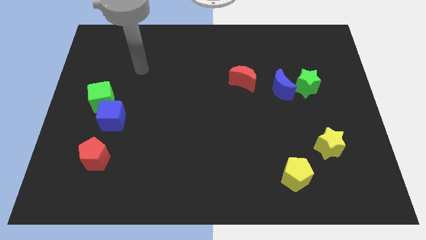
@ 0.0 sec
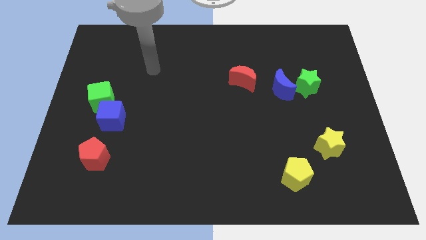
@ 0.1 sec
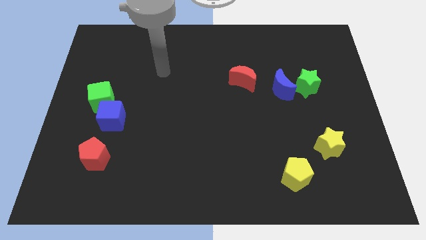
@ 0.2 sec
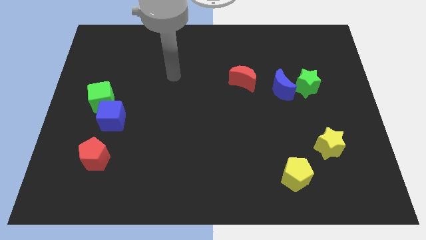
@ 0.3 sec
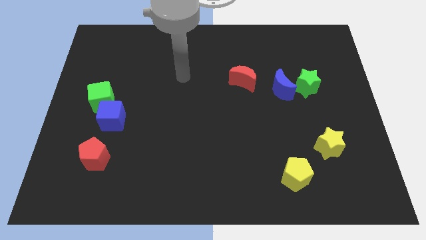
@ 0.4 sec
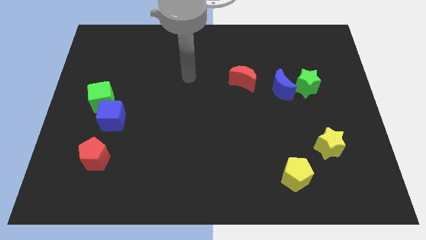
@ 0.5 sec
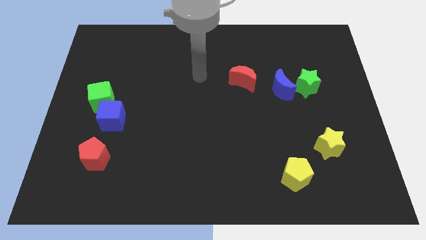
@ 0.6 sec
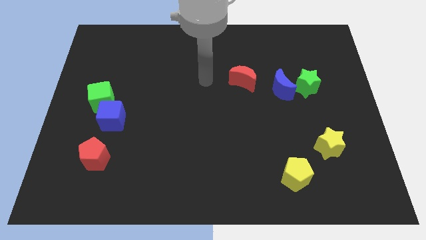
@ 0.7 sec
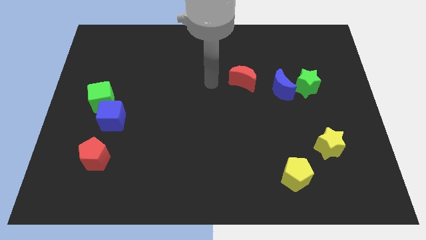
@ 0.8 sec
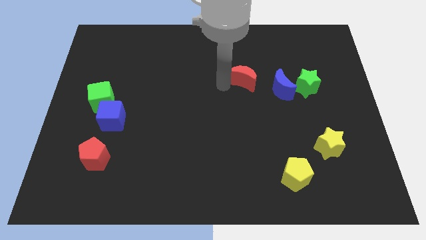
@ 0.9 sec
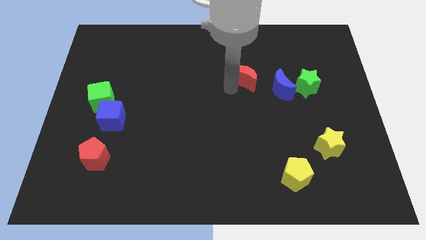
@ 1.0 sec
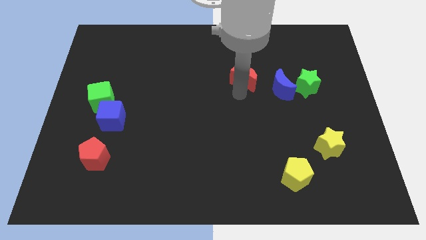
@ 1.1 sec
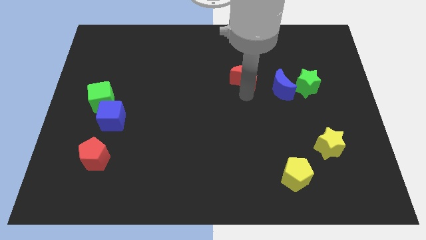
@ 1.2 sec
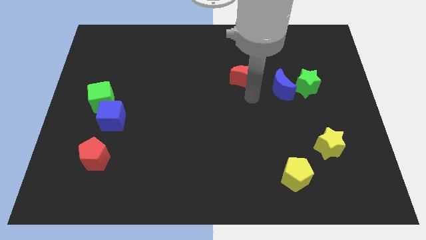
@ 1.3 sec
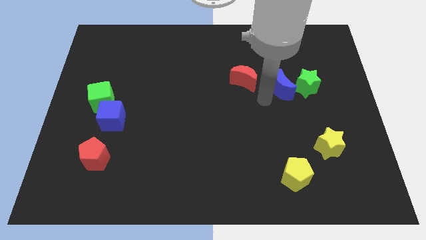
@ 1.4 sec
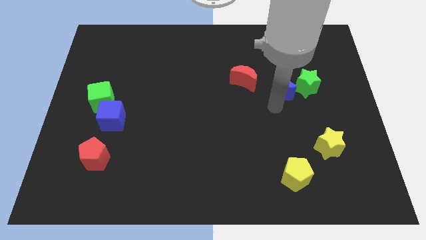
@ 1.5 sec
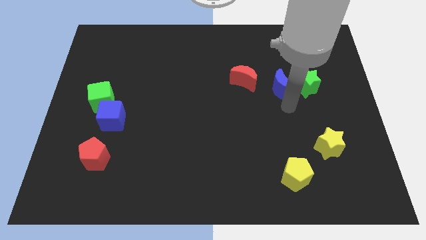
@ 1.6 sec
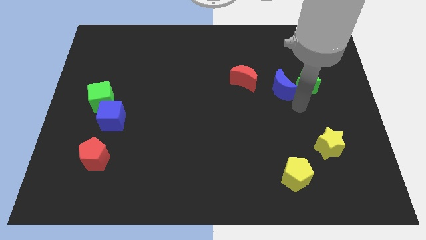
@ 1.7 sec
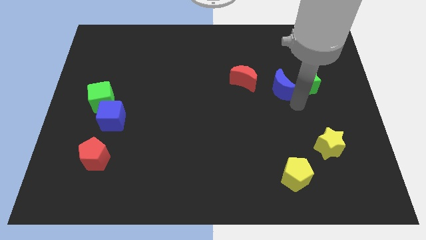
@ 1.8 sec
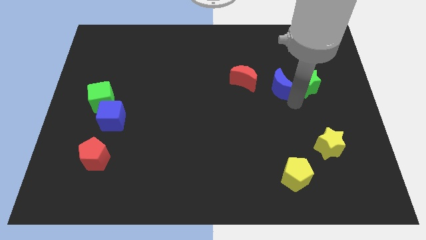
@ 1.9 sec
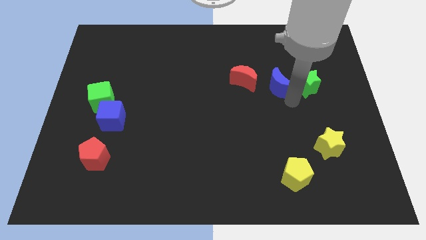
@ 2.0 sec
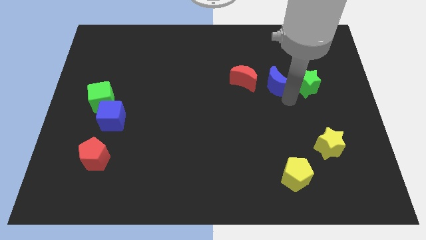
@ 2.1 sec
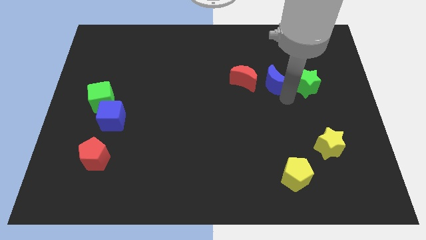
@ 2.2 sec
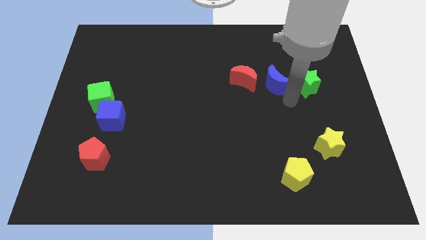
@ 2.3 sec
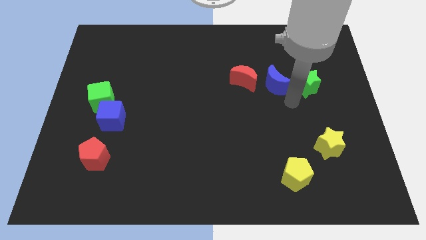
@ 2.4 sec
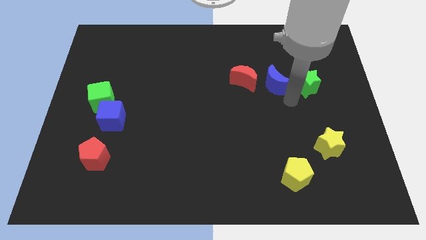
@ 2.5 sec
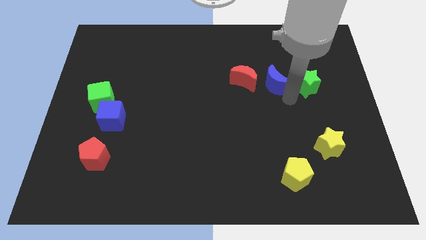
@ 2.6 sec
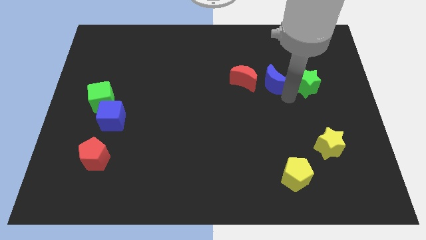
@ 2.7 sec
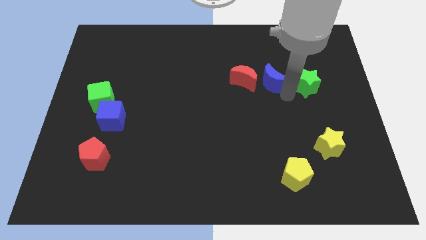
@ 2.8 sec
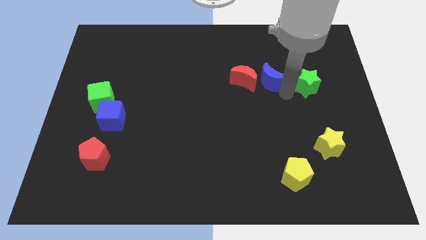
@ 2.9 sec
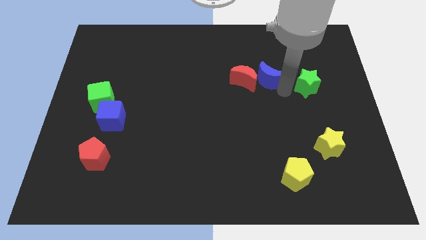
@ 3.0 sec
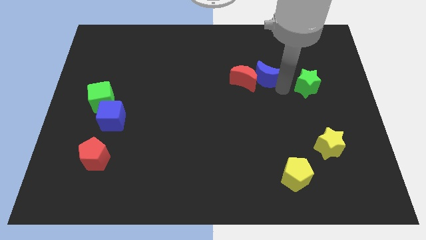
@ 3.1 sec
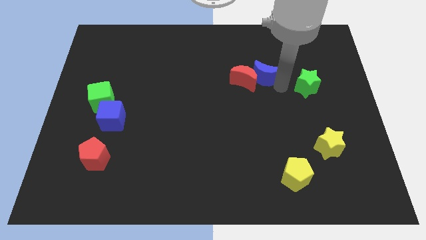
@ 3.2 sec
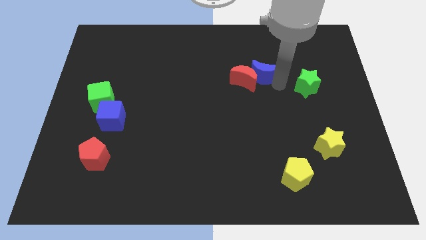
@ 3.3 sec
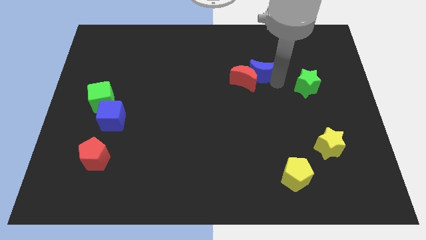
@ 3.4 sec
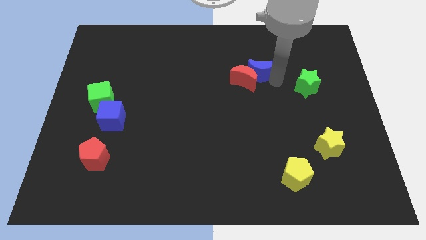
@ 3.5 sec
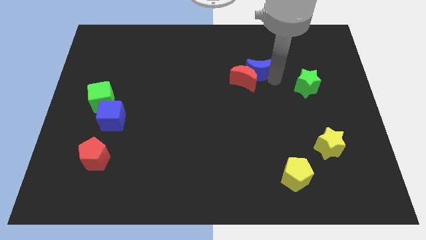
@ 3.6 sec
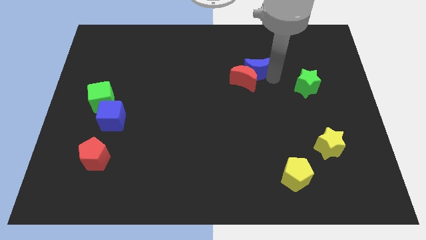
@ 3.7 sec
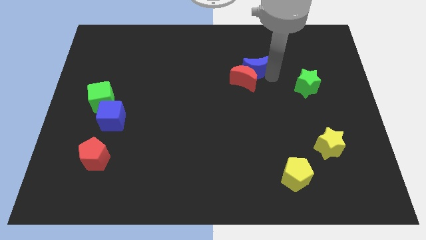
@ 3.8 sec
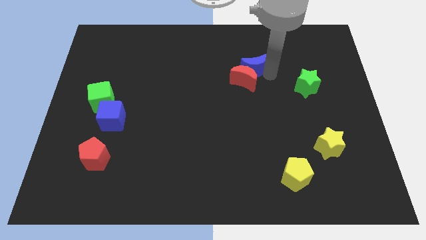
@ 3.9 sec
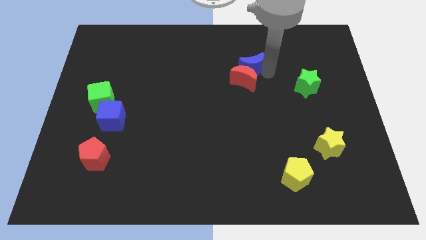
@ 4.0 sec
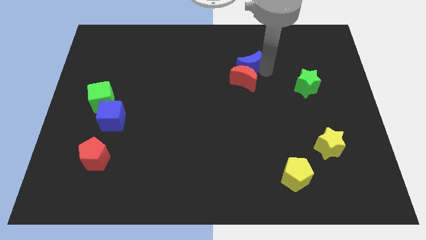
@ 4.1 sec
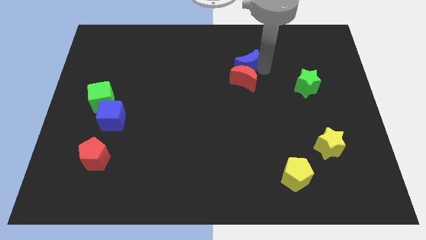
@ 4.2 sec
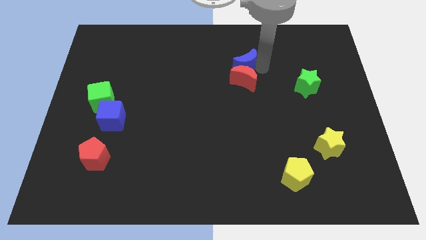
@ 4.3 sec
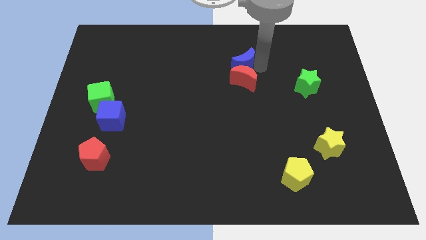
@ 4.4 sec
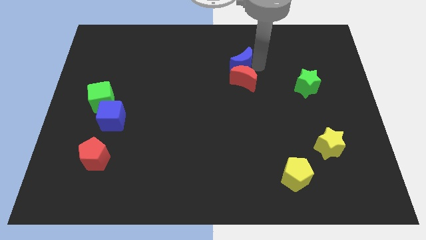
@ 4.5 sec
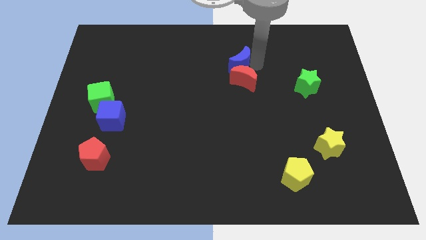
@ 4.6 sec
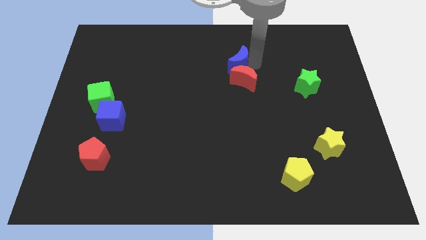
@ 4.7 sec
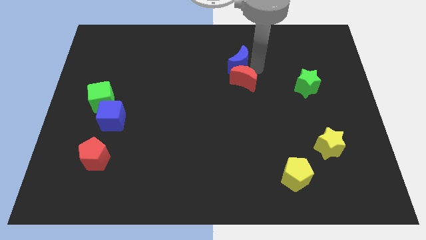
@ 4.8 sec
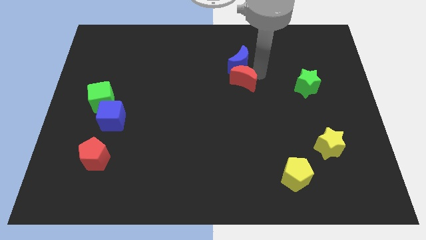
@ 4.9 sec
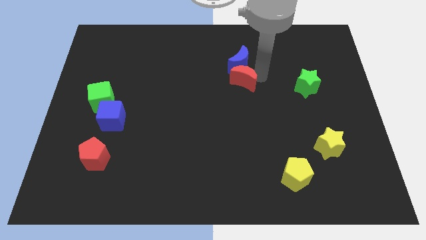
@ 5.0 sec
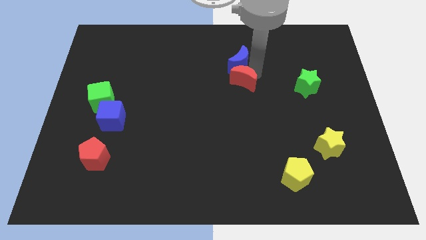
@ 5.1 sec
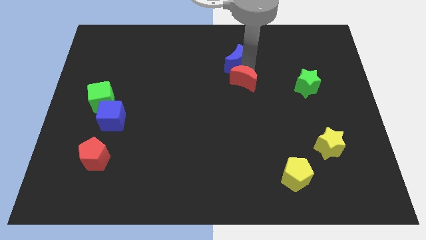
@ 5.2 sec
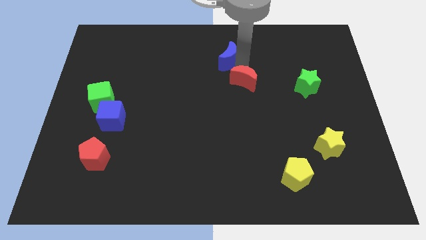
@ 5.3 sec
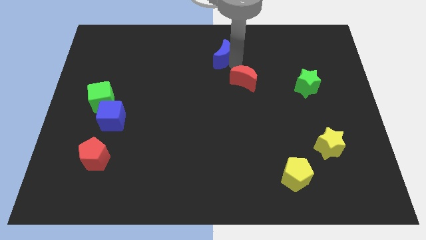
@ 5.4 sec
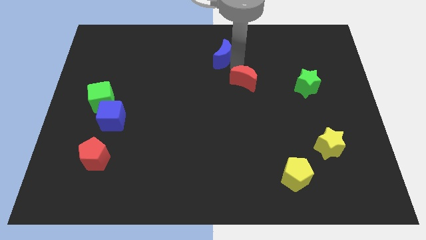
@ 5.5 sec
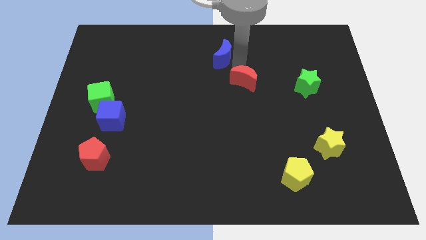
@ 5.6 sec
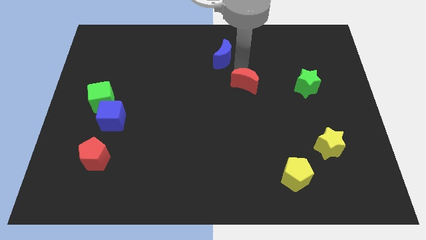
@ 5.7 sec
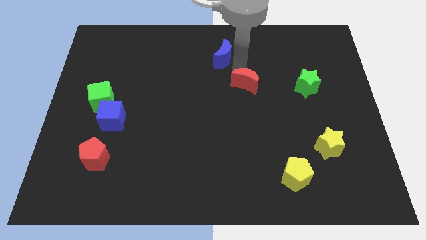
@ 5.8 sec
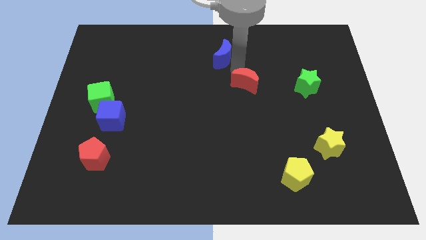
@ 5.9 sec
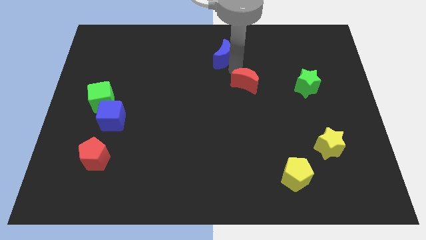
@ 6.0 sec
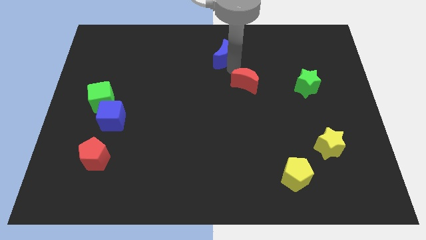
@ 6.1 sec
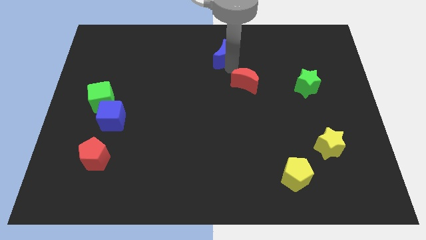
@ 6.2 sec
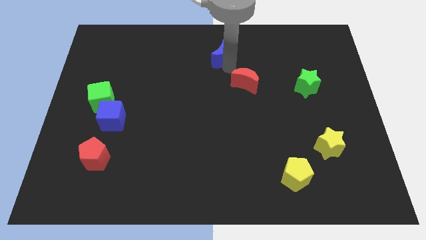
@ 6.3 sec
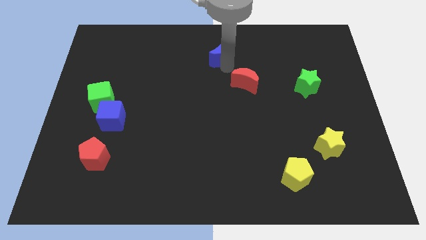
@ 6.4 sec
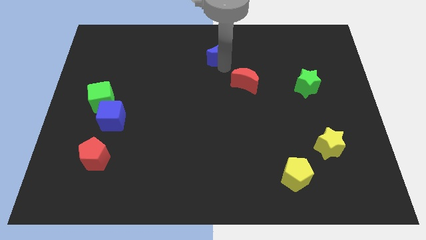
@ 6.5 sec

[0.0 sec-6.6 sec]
slide the blue moon to the towards your base

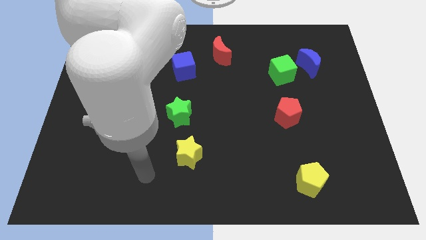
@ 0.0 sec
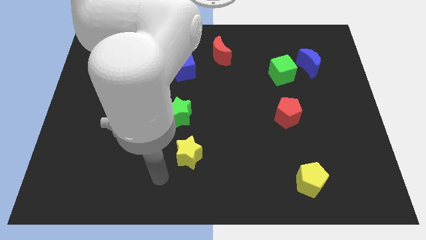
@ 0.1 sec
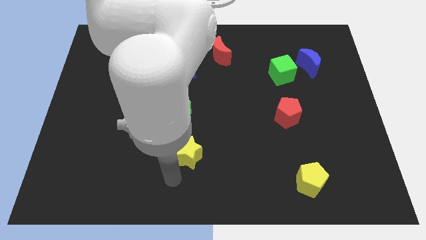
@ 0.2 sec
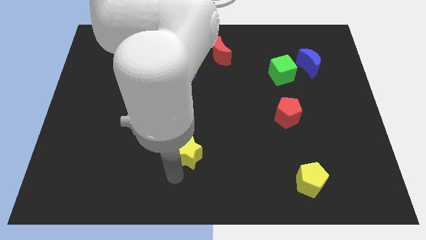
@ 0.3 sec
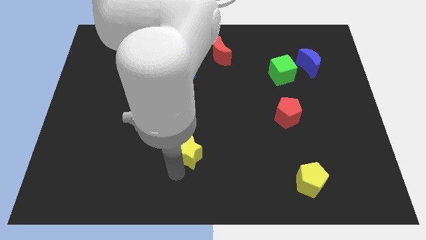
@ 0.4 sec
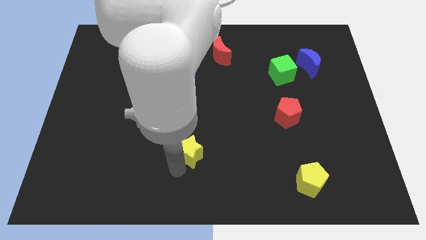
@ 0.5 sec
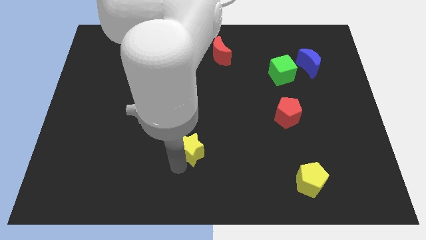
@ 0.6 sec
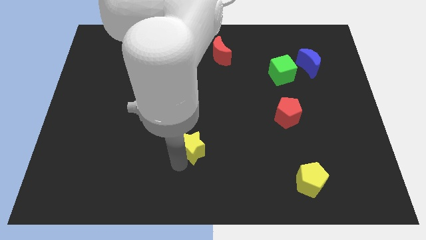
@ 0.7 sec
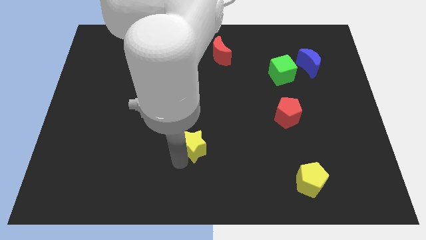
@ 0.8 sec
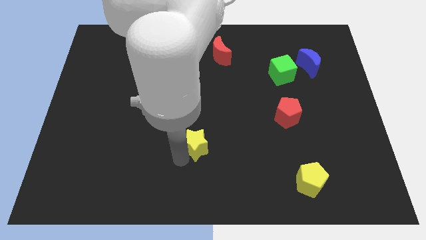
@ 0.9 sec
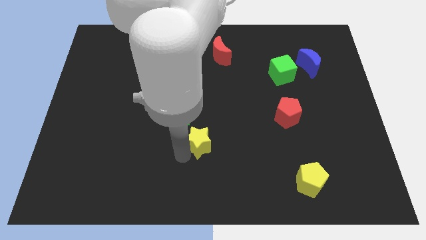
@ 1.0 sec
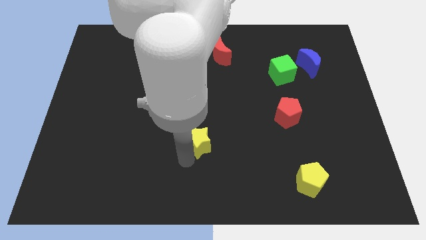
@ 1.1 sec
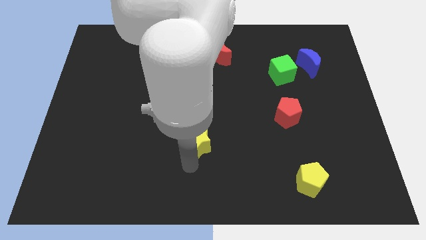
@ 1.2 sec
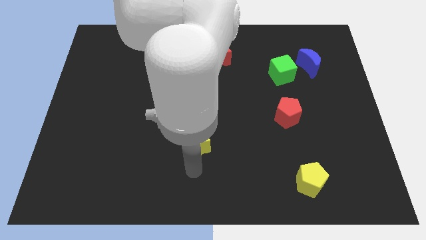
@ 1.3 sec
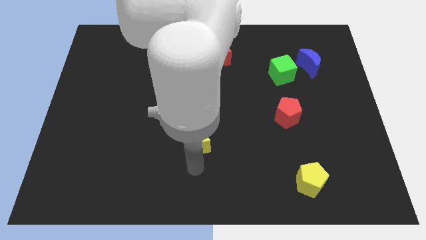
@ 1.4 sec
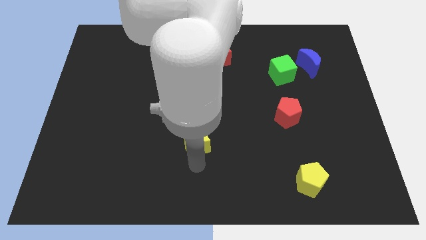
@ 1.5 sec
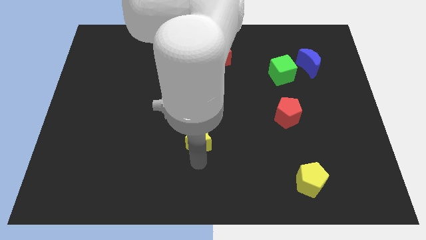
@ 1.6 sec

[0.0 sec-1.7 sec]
push the yellow star to the middle
